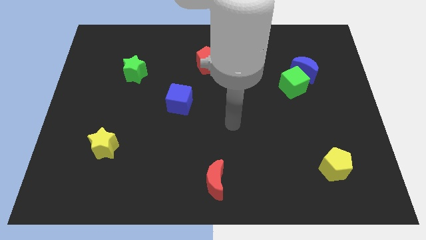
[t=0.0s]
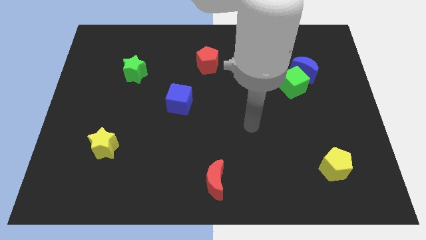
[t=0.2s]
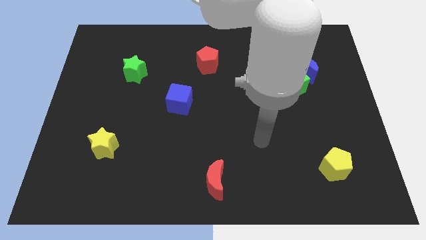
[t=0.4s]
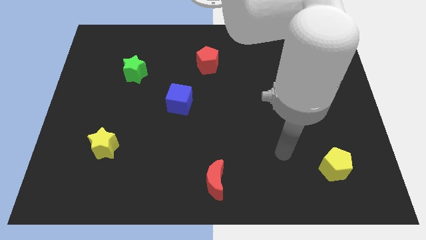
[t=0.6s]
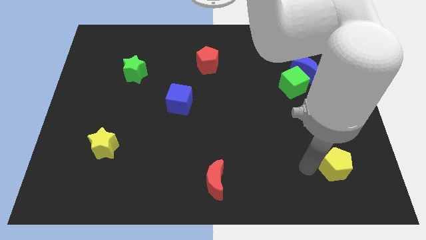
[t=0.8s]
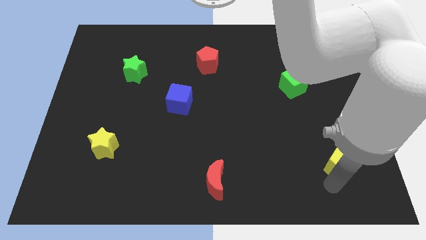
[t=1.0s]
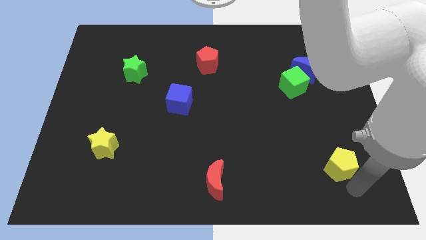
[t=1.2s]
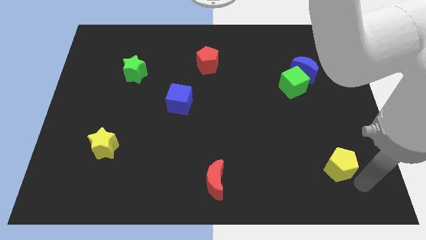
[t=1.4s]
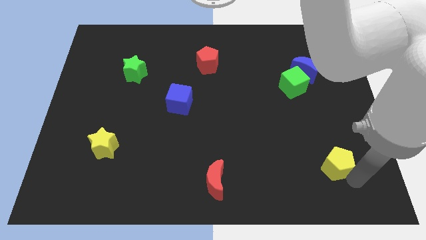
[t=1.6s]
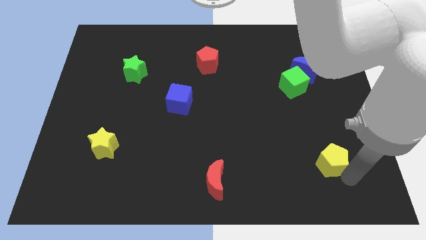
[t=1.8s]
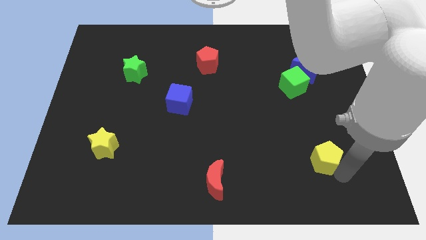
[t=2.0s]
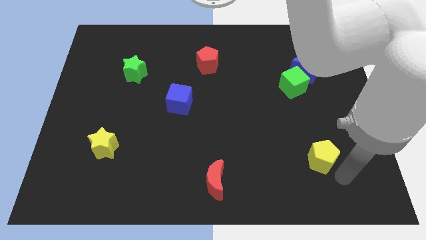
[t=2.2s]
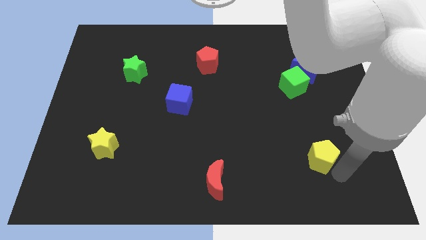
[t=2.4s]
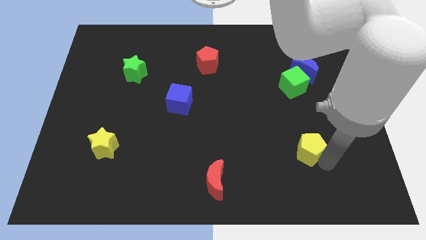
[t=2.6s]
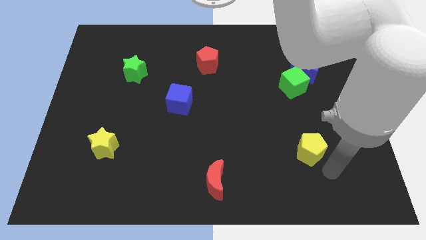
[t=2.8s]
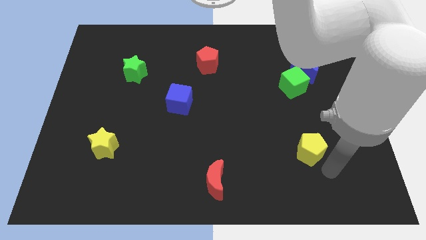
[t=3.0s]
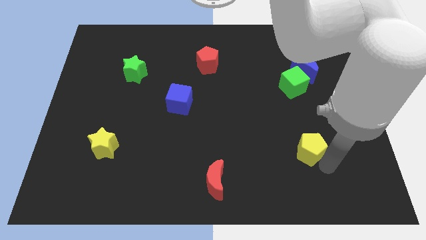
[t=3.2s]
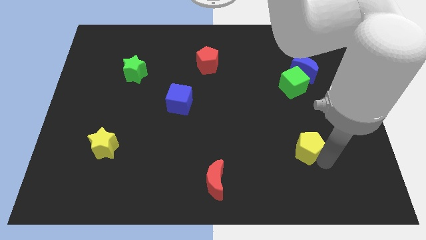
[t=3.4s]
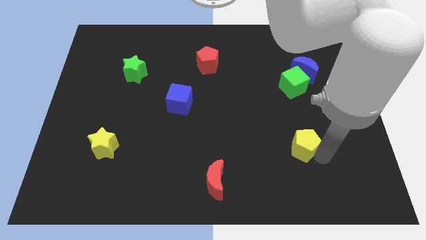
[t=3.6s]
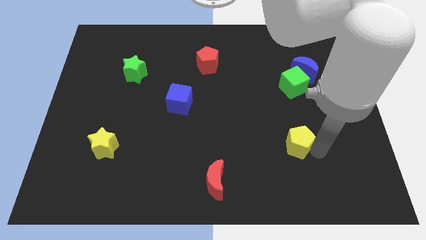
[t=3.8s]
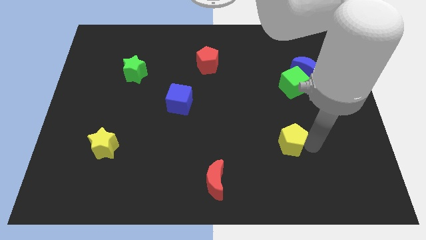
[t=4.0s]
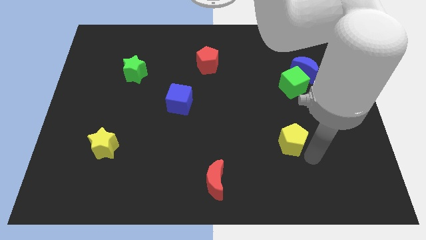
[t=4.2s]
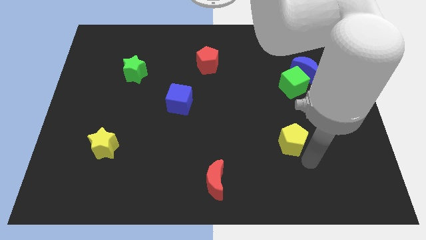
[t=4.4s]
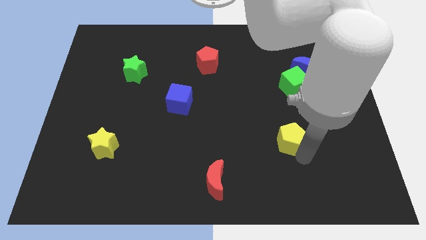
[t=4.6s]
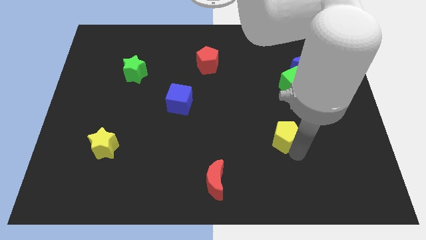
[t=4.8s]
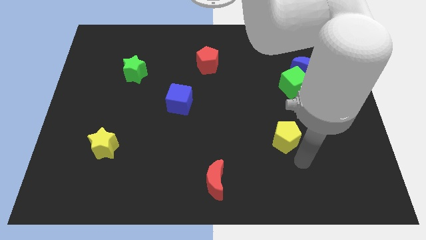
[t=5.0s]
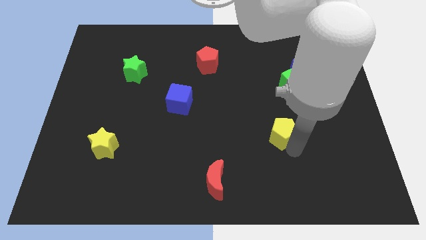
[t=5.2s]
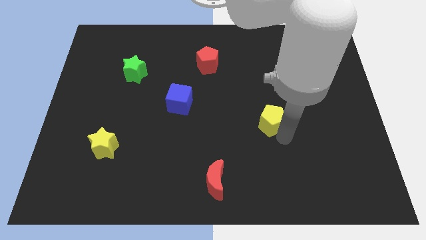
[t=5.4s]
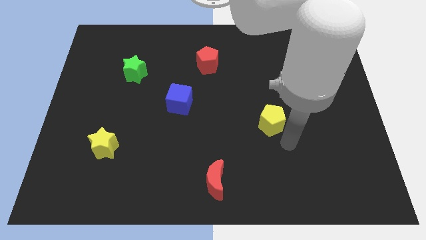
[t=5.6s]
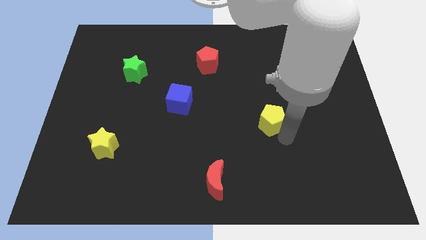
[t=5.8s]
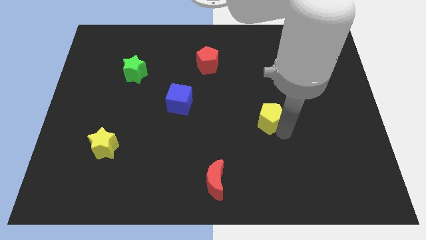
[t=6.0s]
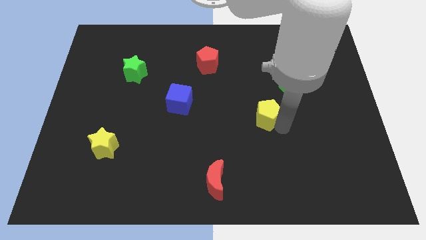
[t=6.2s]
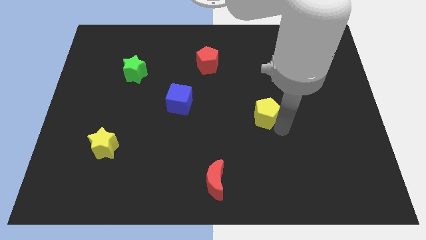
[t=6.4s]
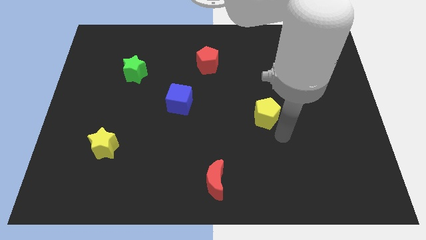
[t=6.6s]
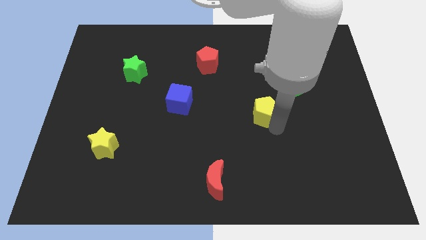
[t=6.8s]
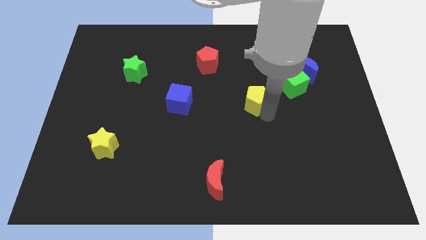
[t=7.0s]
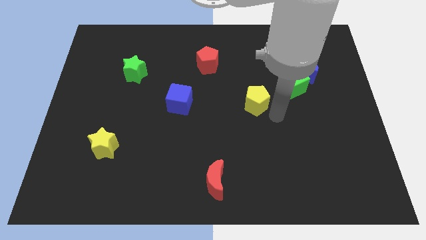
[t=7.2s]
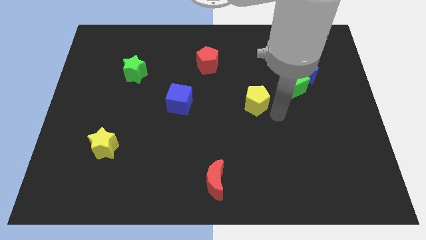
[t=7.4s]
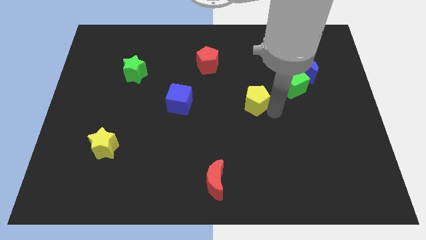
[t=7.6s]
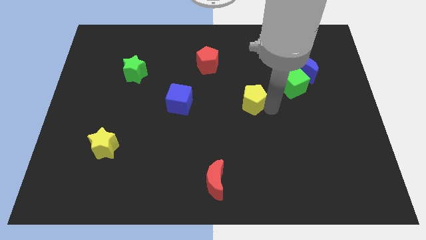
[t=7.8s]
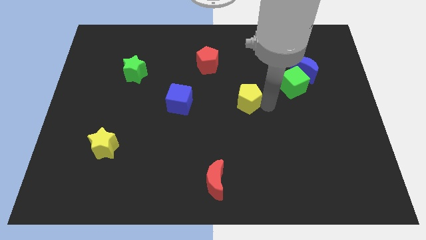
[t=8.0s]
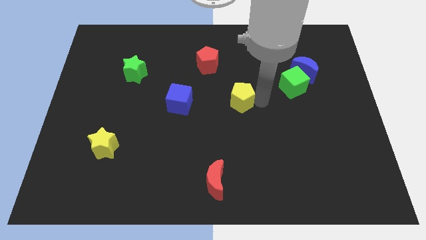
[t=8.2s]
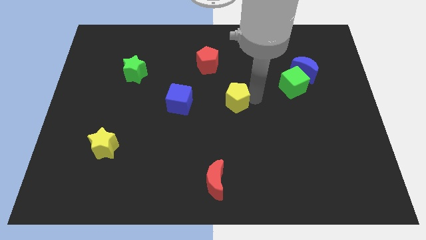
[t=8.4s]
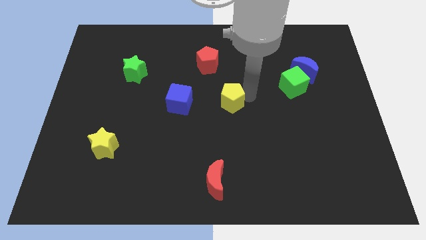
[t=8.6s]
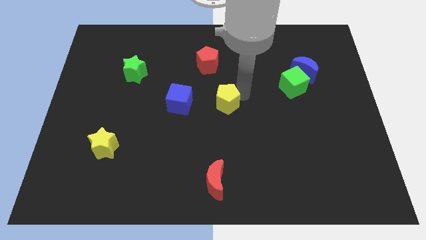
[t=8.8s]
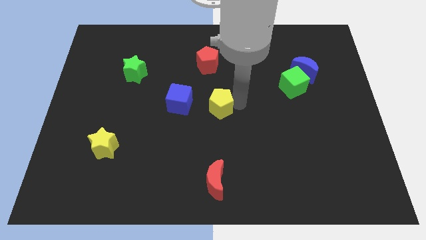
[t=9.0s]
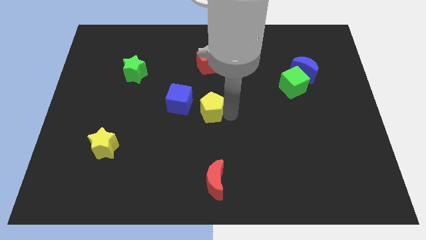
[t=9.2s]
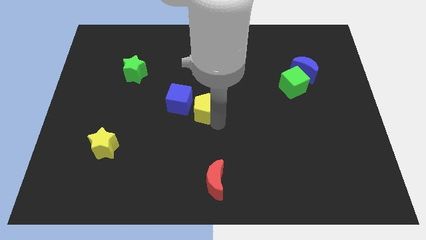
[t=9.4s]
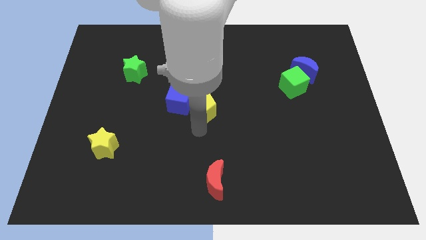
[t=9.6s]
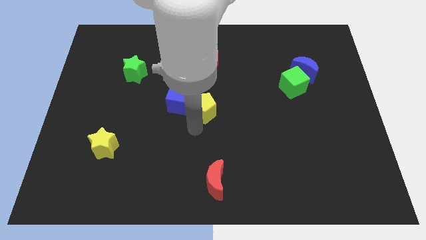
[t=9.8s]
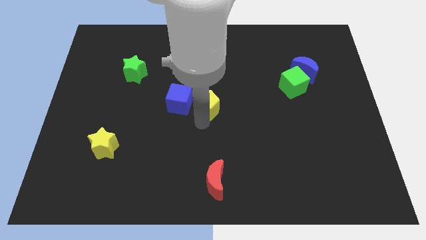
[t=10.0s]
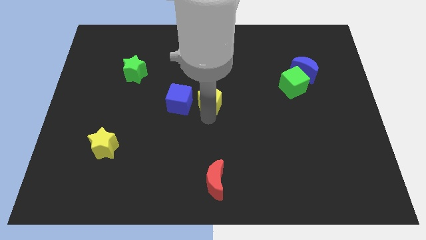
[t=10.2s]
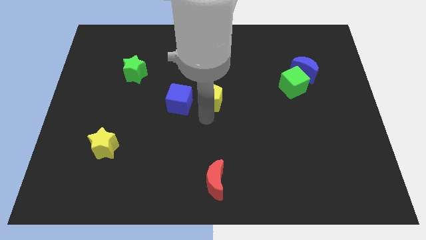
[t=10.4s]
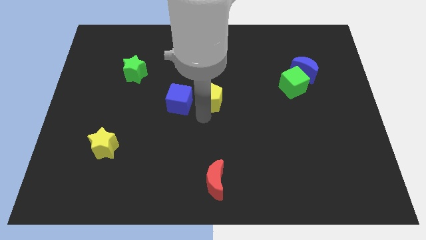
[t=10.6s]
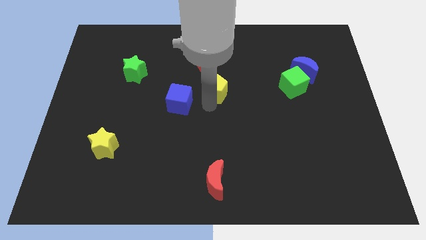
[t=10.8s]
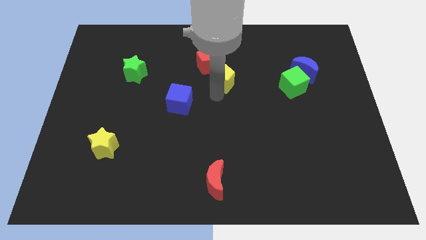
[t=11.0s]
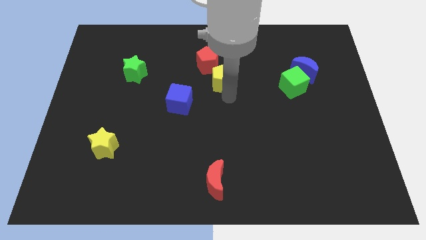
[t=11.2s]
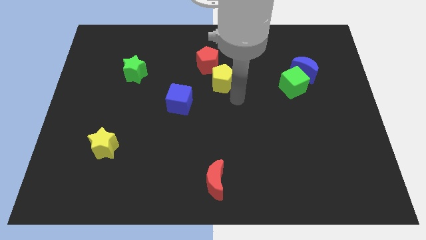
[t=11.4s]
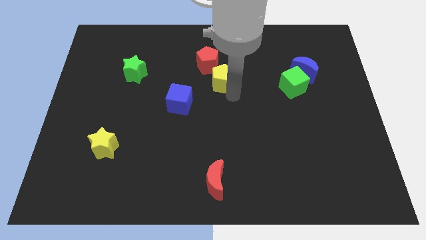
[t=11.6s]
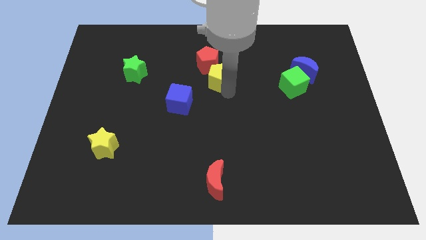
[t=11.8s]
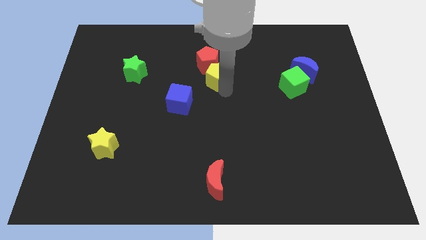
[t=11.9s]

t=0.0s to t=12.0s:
put the yellow pentagon close to the red pentagon

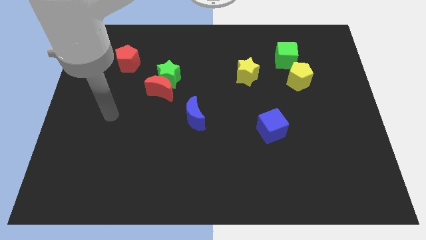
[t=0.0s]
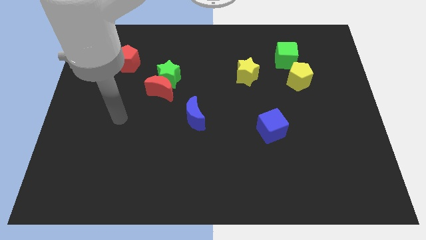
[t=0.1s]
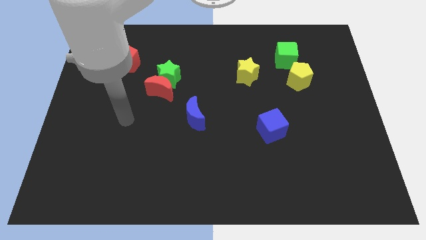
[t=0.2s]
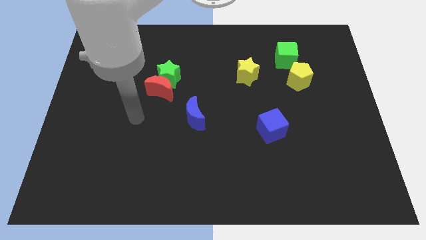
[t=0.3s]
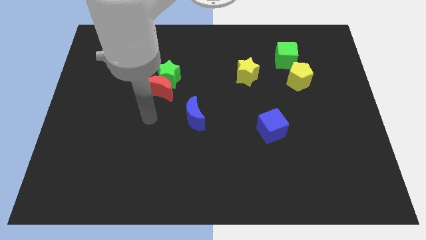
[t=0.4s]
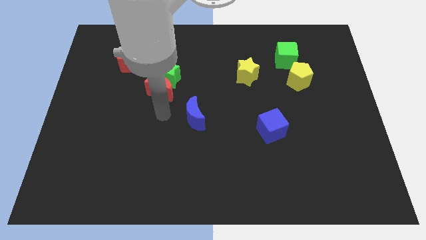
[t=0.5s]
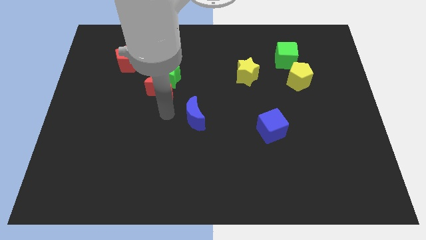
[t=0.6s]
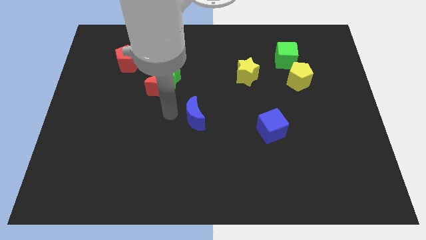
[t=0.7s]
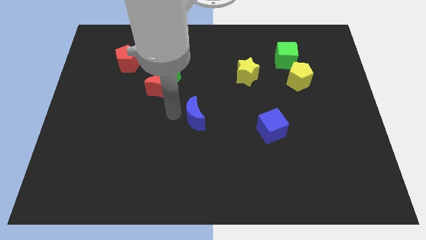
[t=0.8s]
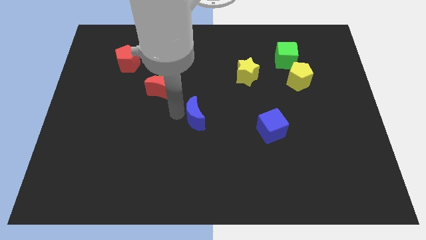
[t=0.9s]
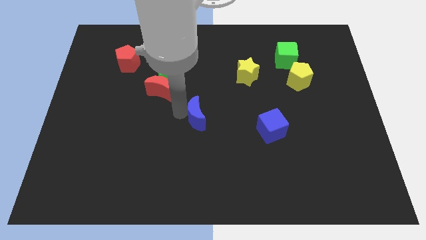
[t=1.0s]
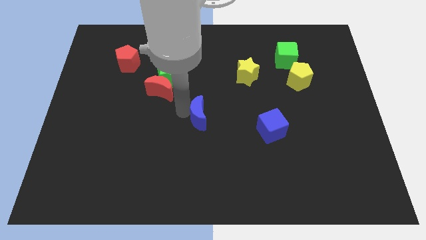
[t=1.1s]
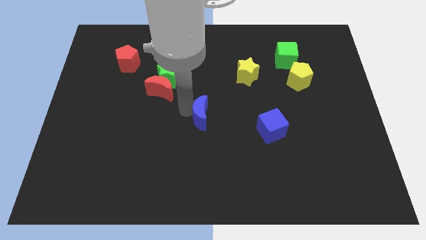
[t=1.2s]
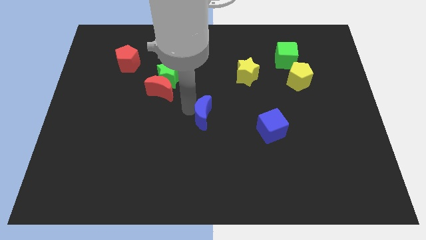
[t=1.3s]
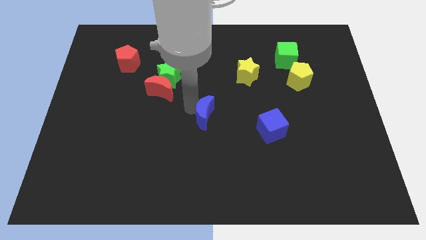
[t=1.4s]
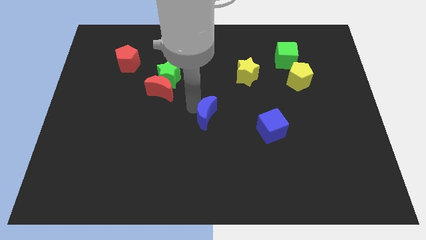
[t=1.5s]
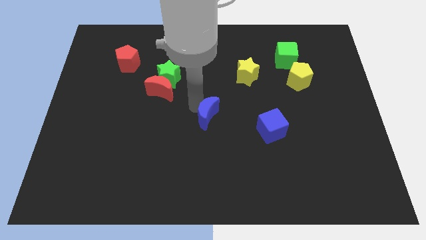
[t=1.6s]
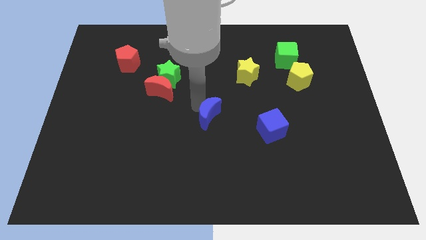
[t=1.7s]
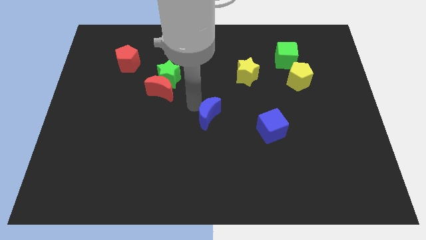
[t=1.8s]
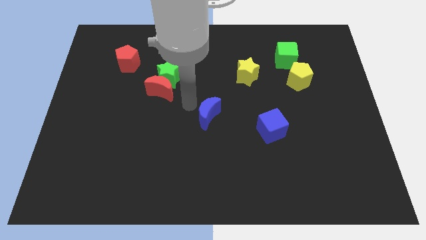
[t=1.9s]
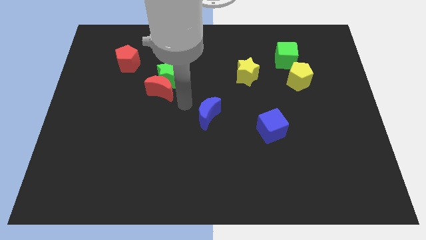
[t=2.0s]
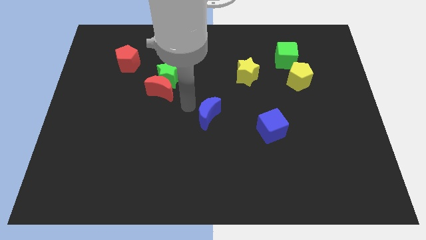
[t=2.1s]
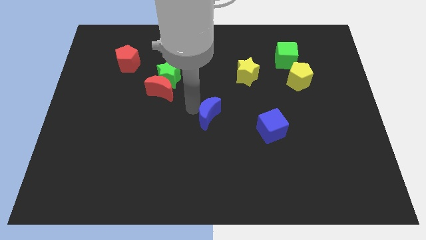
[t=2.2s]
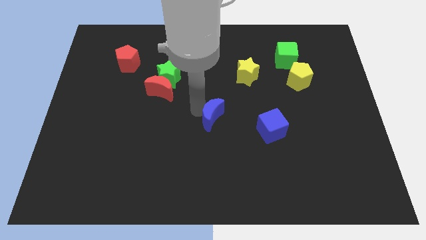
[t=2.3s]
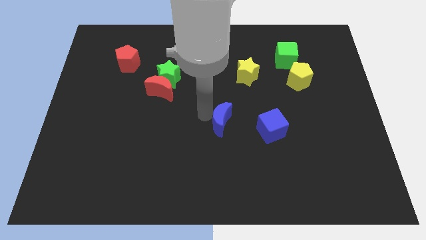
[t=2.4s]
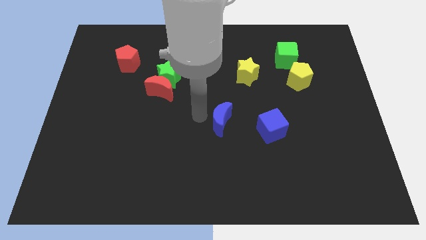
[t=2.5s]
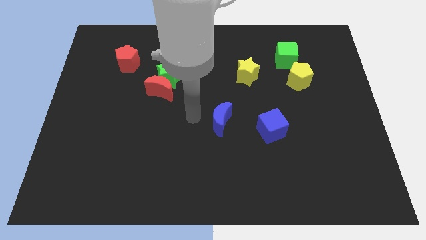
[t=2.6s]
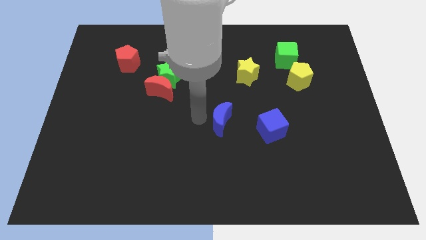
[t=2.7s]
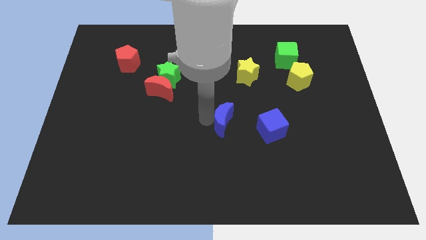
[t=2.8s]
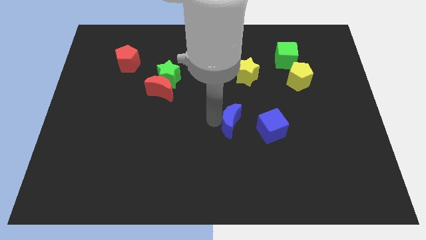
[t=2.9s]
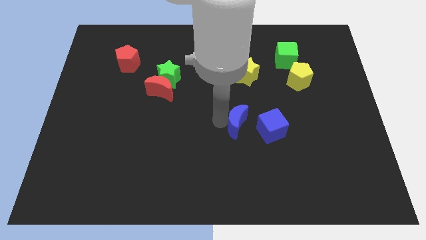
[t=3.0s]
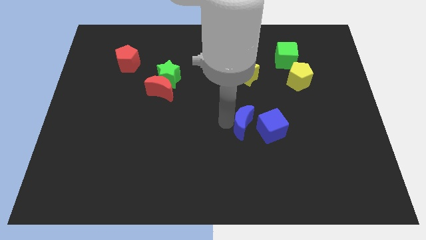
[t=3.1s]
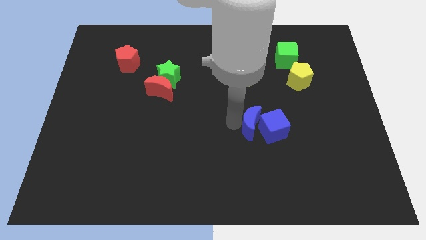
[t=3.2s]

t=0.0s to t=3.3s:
move the blue moon to the blue cube
